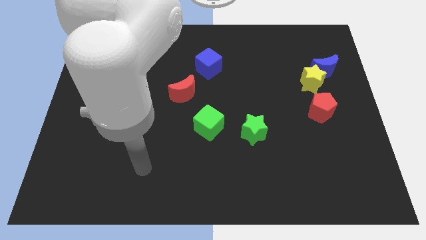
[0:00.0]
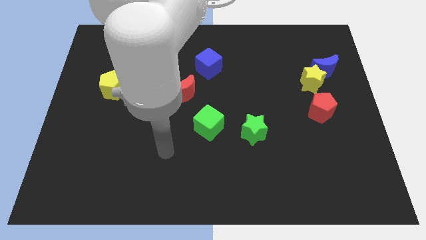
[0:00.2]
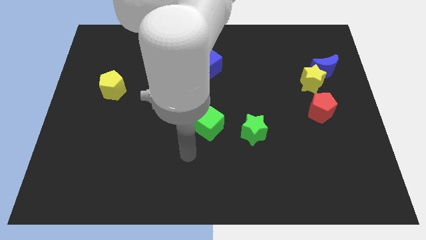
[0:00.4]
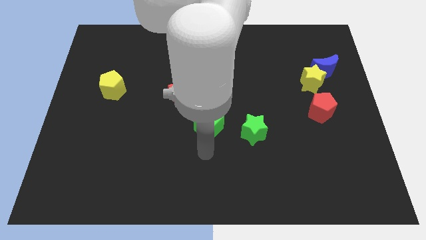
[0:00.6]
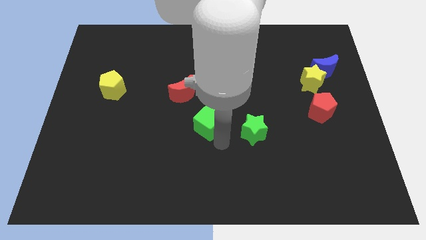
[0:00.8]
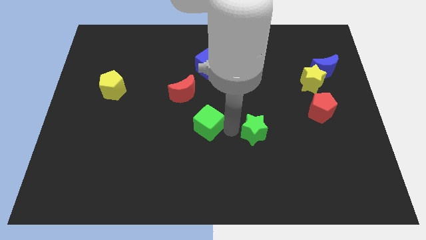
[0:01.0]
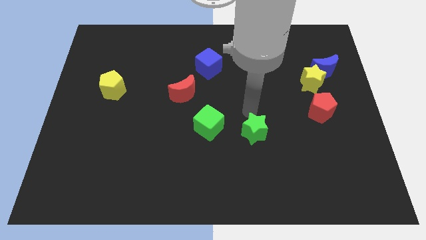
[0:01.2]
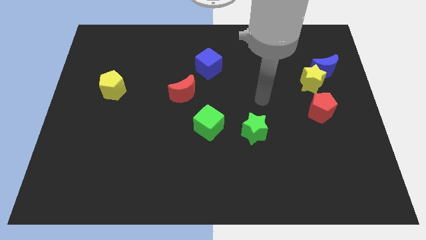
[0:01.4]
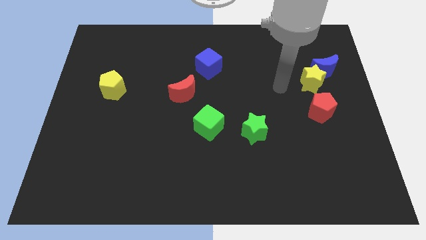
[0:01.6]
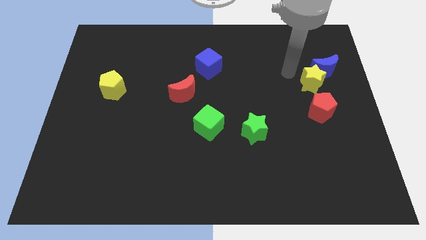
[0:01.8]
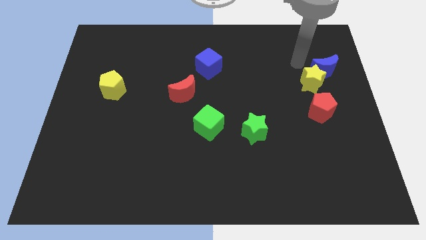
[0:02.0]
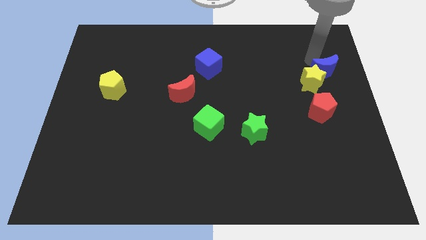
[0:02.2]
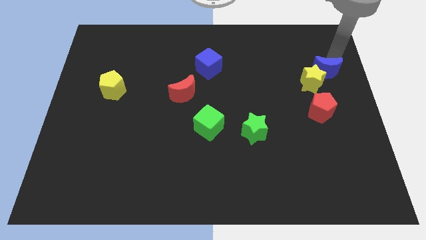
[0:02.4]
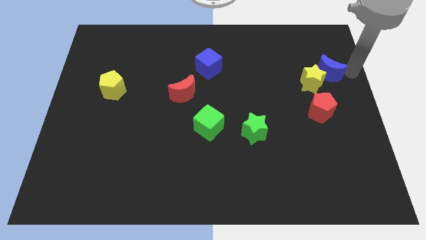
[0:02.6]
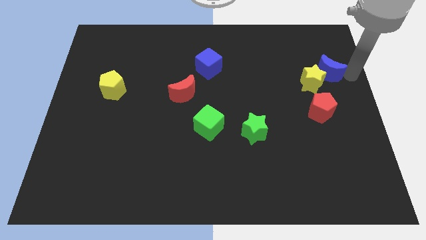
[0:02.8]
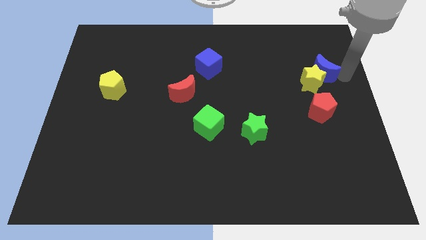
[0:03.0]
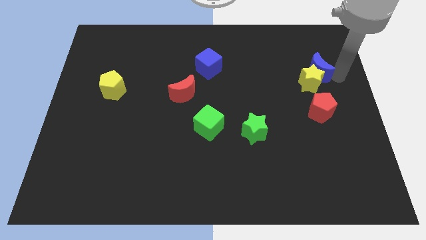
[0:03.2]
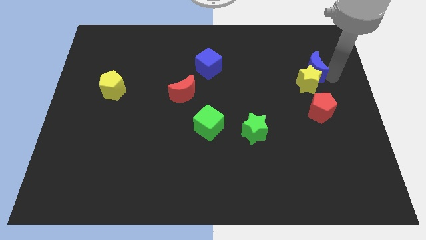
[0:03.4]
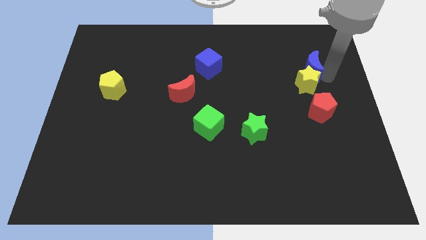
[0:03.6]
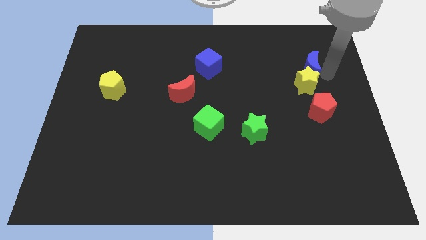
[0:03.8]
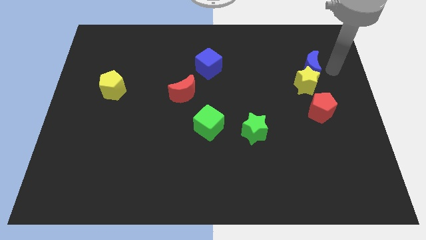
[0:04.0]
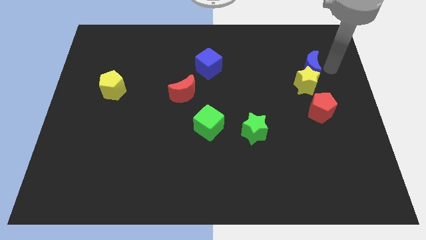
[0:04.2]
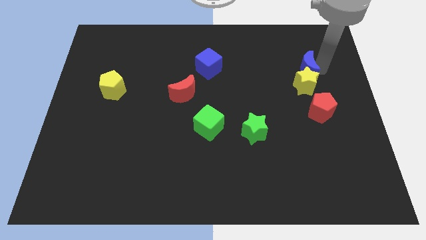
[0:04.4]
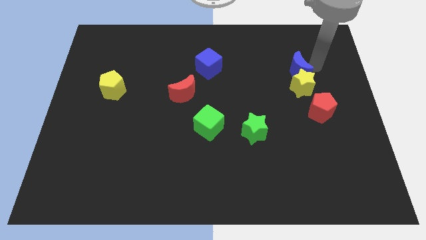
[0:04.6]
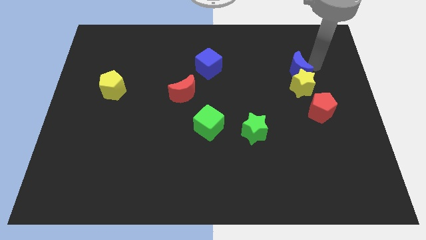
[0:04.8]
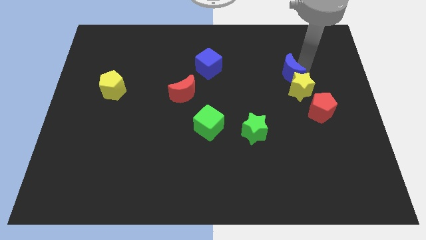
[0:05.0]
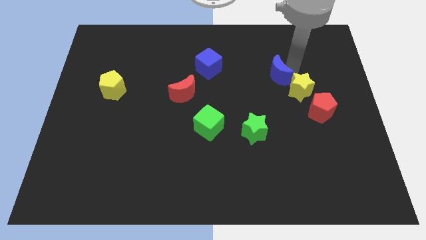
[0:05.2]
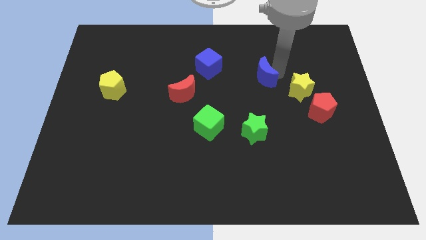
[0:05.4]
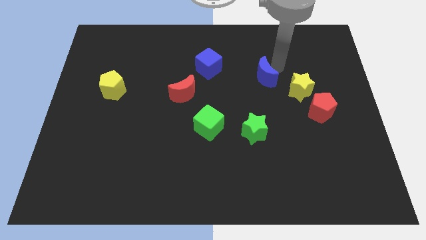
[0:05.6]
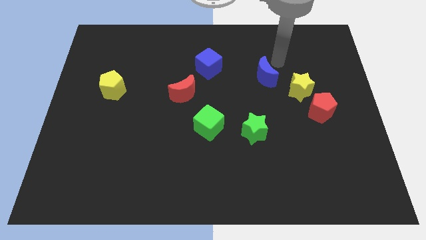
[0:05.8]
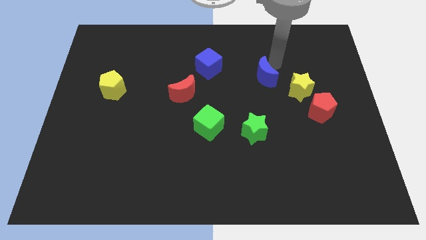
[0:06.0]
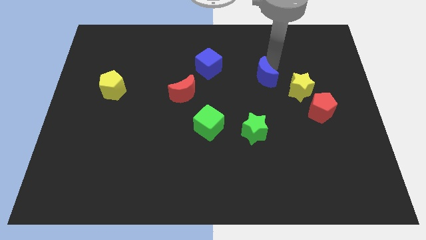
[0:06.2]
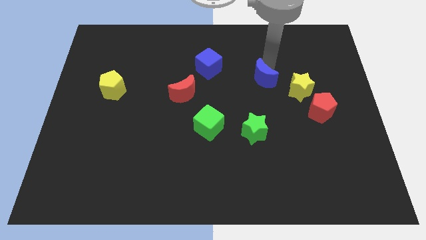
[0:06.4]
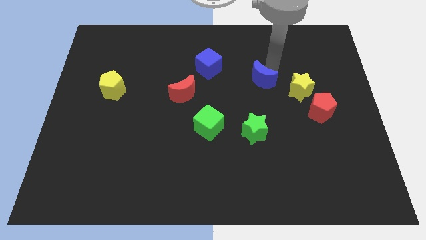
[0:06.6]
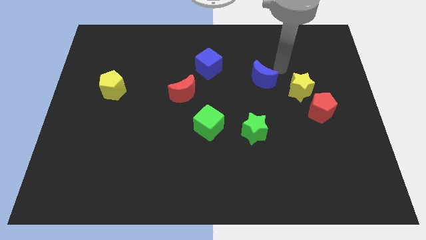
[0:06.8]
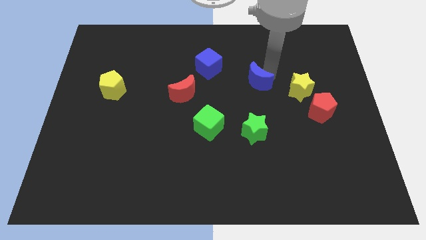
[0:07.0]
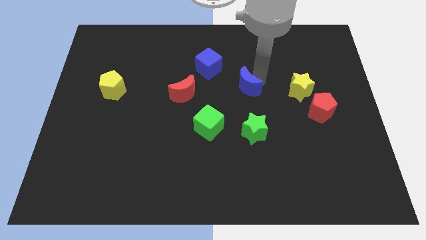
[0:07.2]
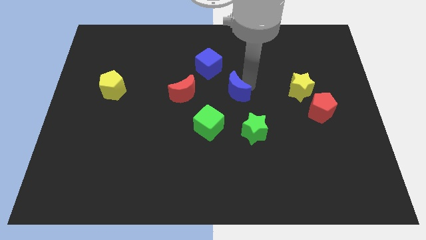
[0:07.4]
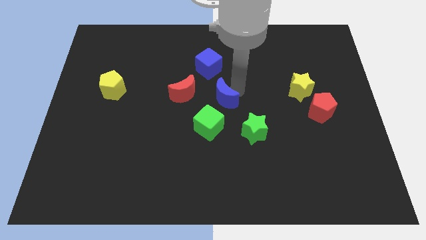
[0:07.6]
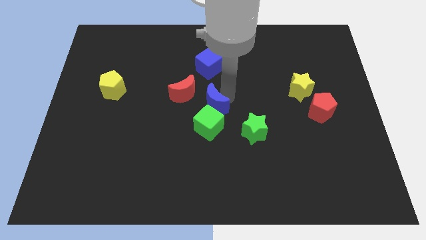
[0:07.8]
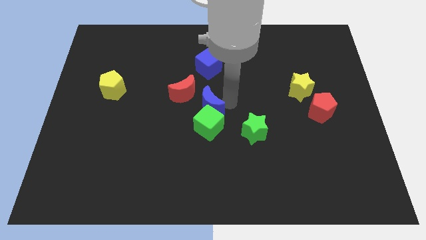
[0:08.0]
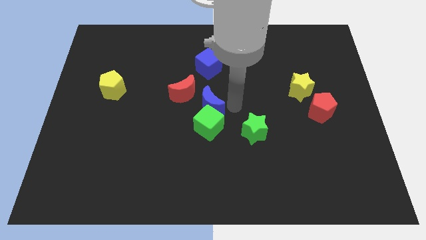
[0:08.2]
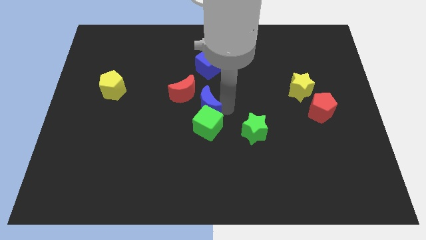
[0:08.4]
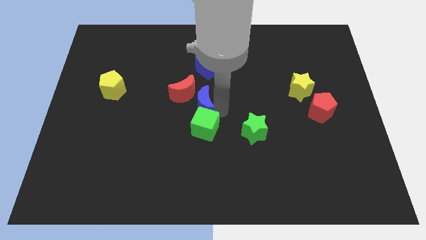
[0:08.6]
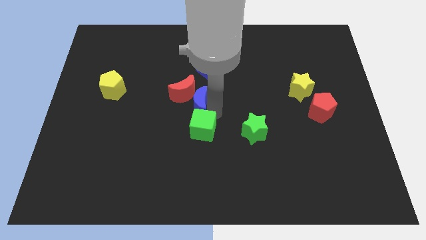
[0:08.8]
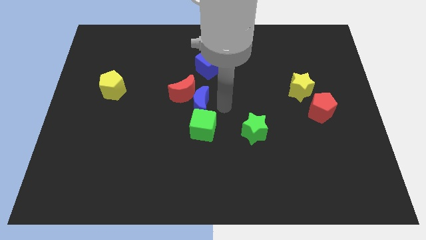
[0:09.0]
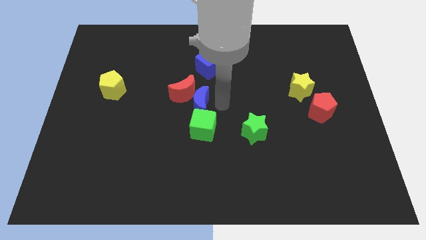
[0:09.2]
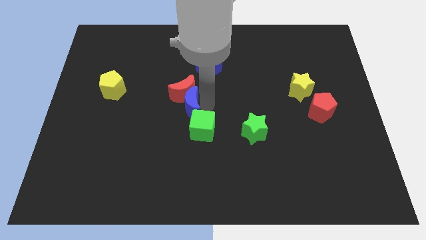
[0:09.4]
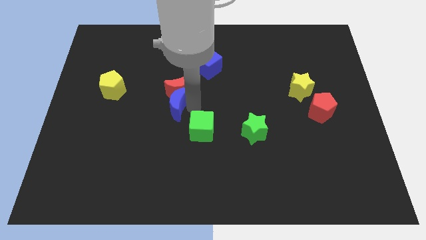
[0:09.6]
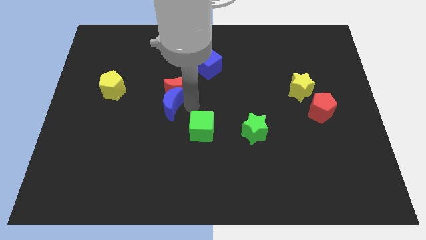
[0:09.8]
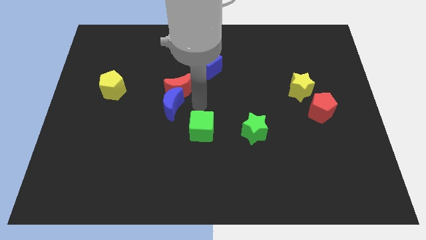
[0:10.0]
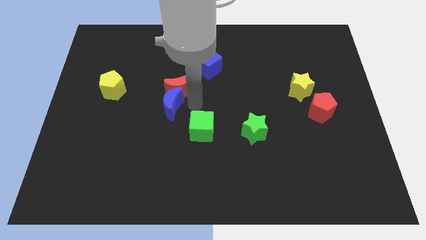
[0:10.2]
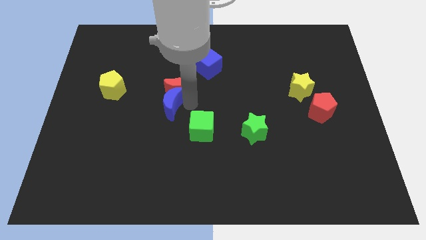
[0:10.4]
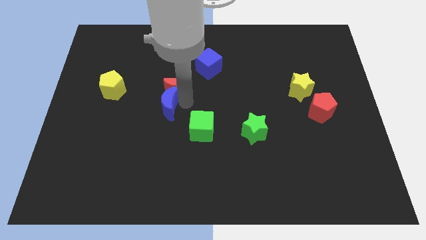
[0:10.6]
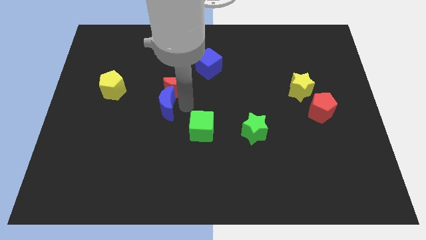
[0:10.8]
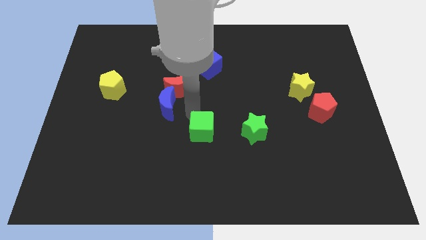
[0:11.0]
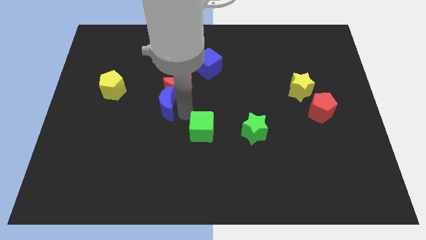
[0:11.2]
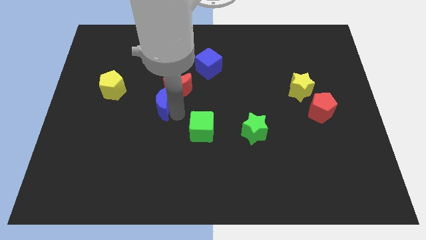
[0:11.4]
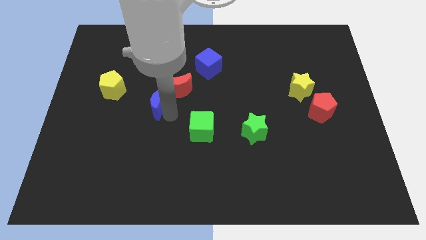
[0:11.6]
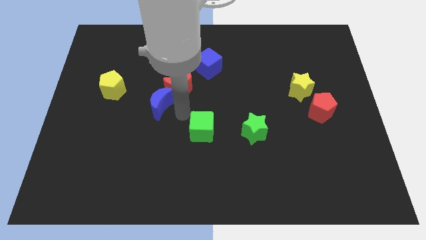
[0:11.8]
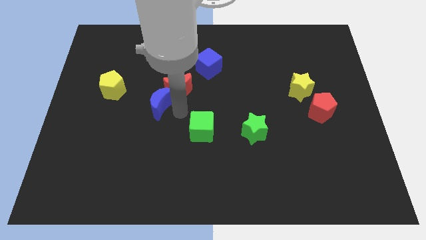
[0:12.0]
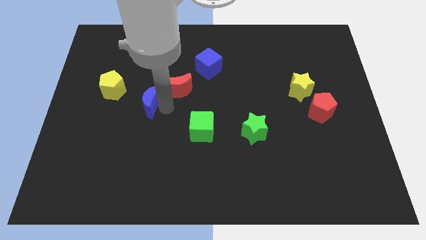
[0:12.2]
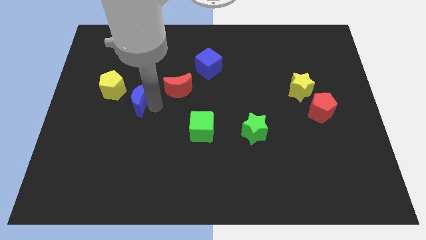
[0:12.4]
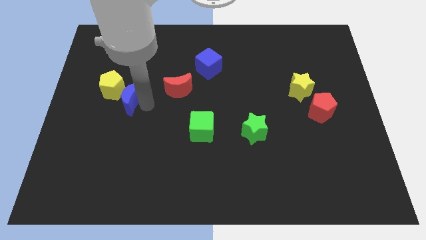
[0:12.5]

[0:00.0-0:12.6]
push the blue moon close to the yellow pentagon

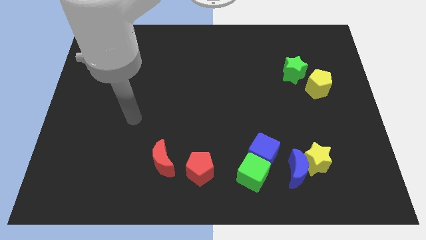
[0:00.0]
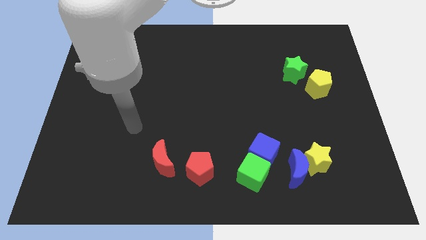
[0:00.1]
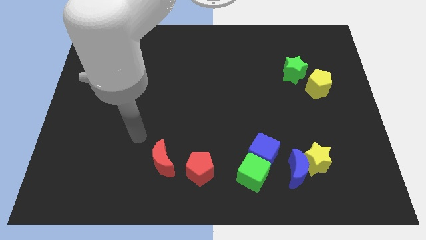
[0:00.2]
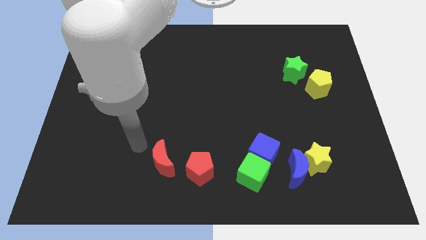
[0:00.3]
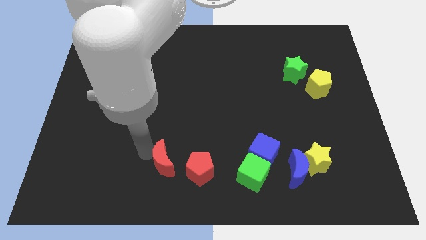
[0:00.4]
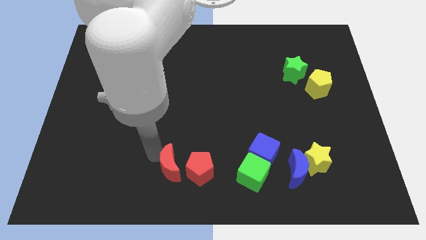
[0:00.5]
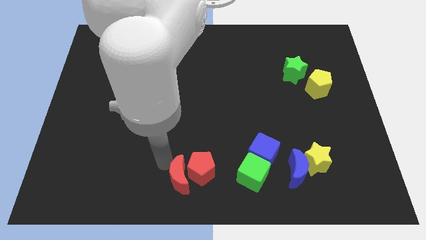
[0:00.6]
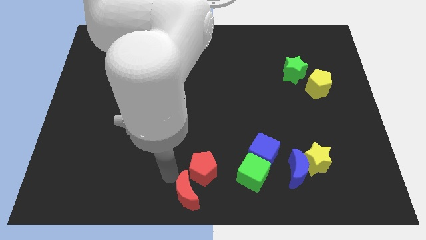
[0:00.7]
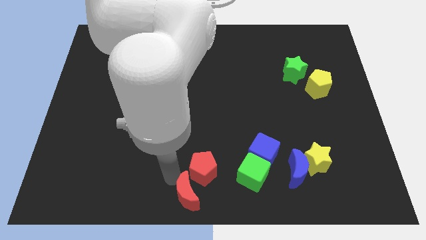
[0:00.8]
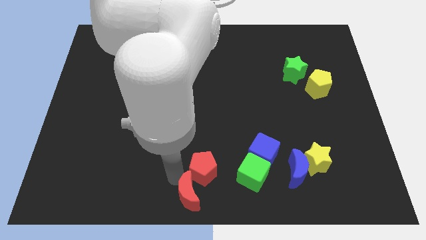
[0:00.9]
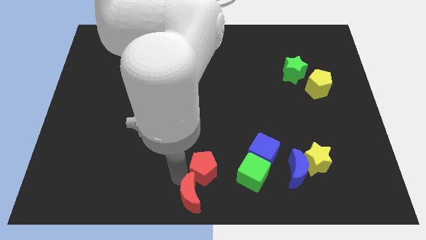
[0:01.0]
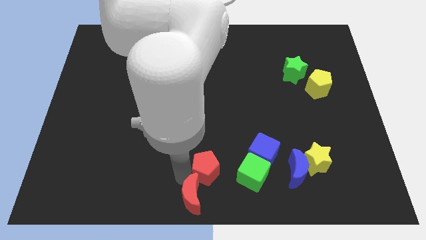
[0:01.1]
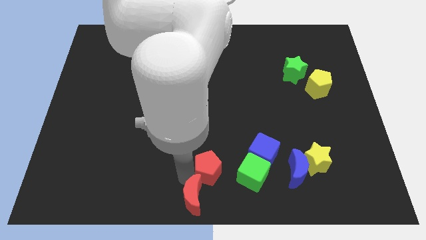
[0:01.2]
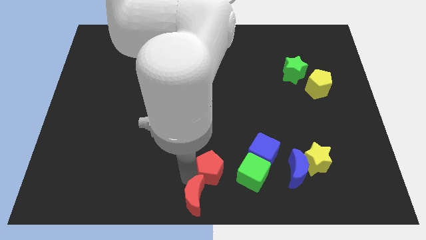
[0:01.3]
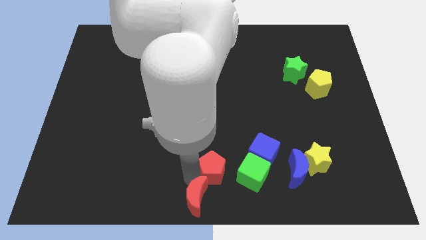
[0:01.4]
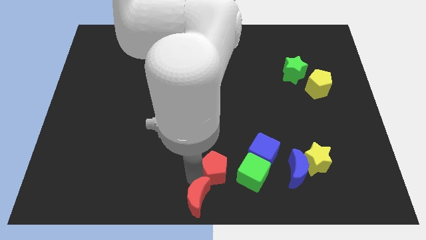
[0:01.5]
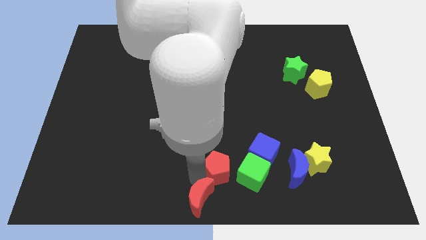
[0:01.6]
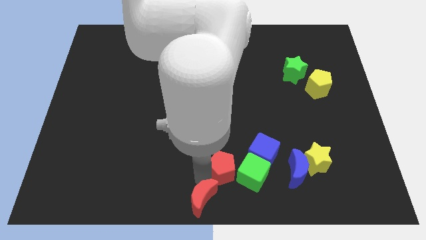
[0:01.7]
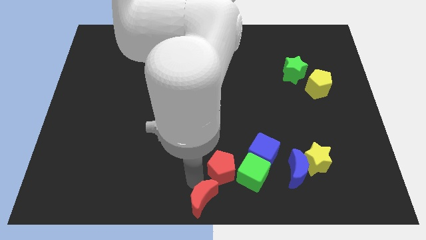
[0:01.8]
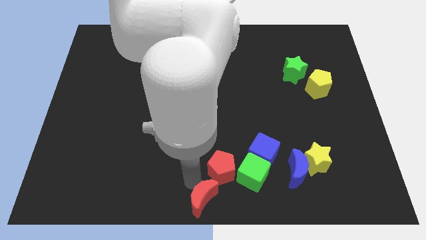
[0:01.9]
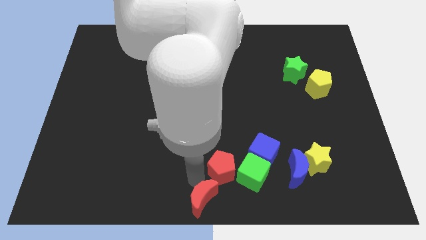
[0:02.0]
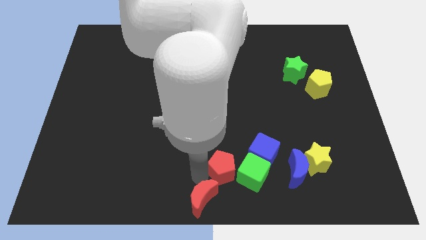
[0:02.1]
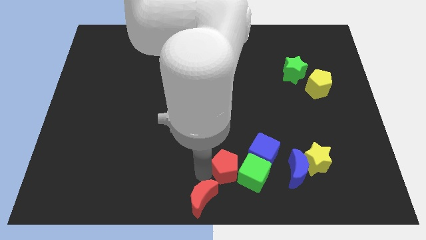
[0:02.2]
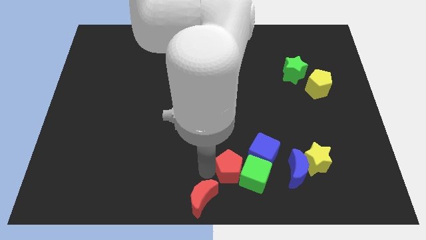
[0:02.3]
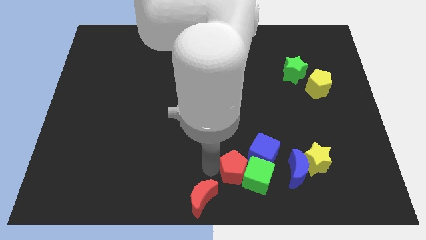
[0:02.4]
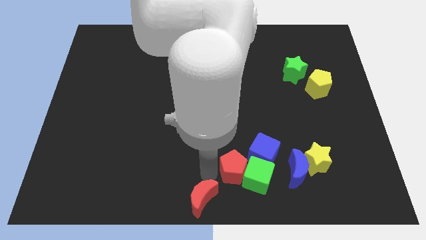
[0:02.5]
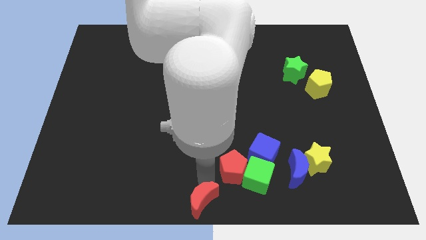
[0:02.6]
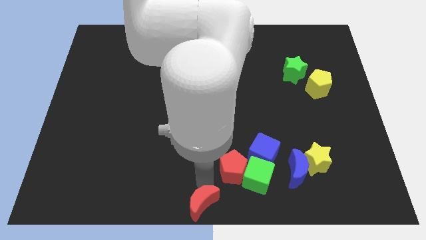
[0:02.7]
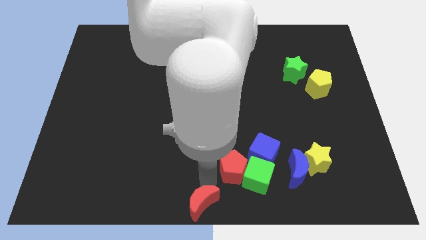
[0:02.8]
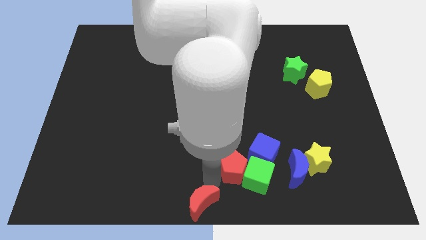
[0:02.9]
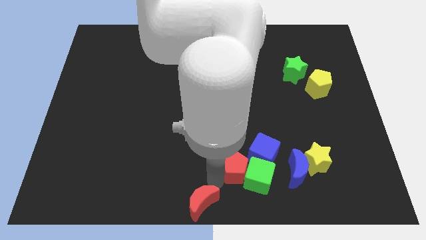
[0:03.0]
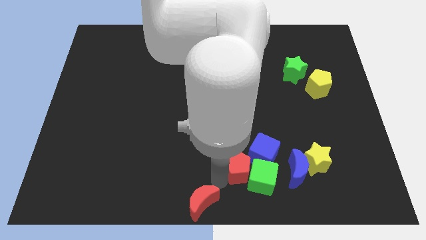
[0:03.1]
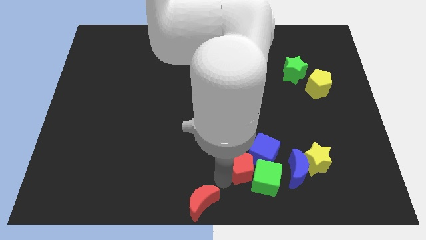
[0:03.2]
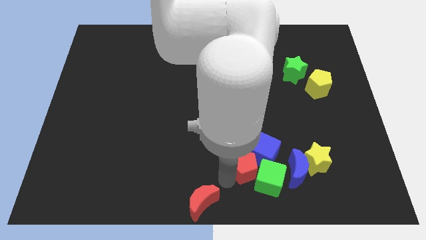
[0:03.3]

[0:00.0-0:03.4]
move the red pentagon towards the blue cube
